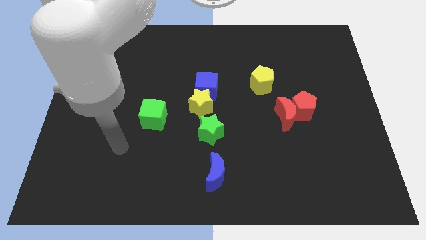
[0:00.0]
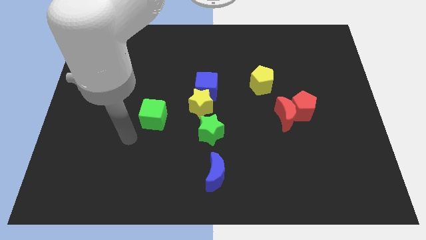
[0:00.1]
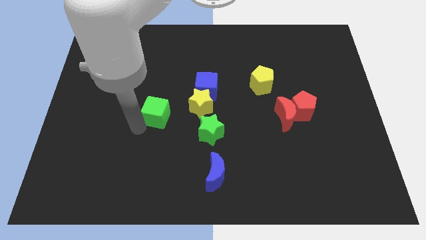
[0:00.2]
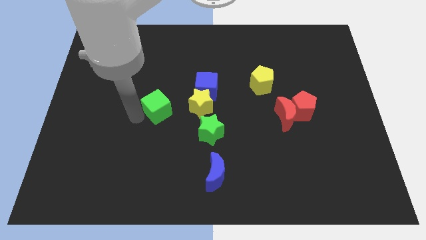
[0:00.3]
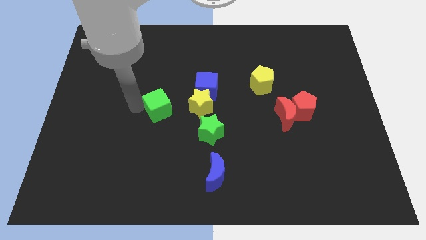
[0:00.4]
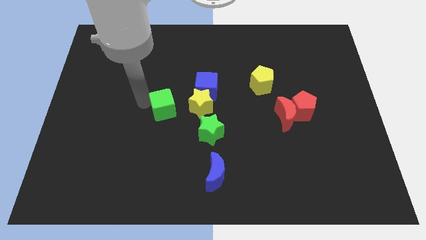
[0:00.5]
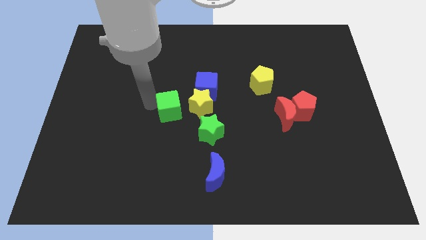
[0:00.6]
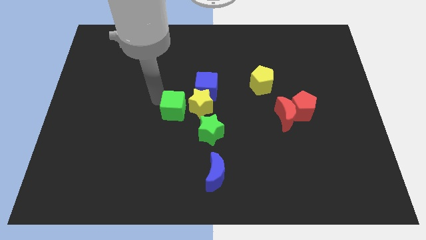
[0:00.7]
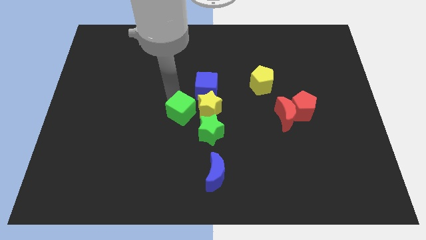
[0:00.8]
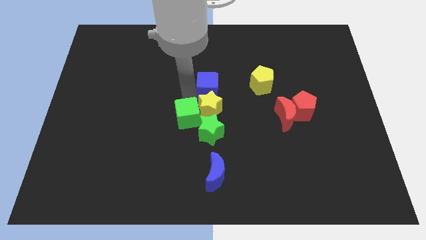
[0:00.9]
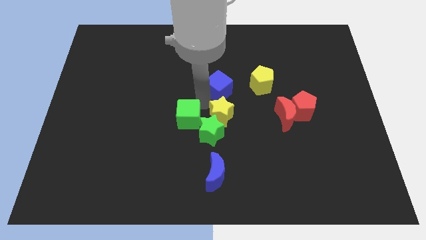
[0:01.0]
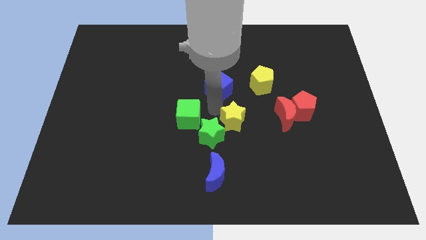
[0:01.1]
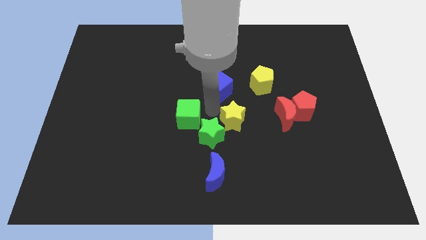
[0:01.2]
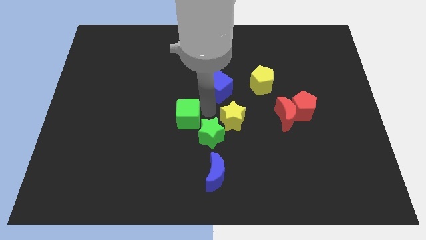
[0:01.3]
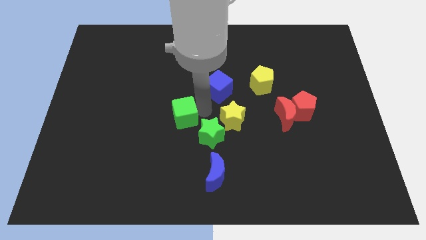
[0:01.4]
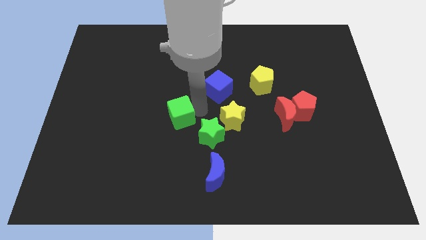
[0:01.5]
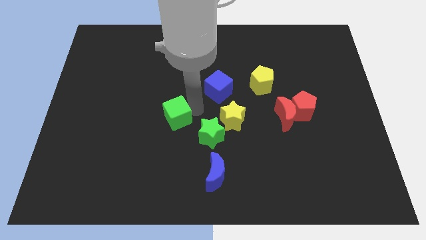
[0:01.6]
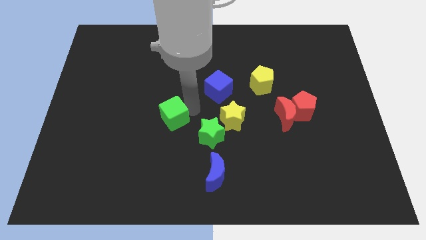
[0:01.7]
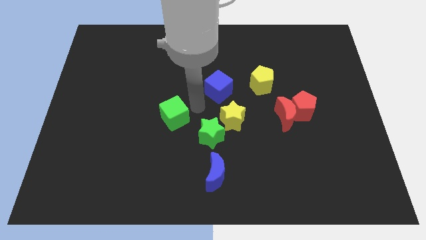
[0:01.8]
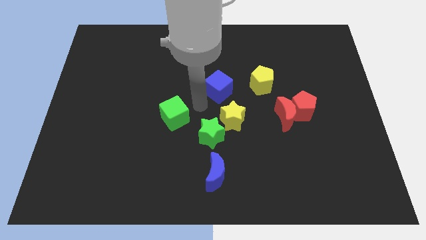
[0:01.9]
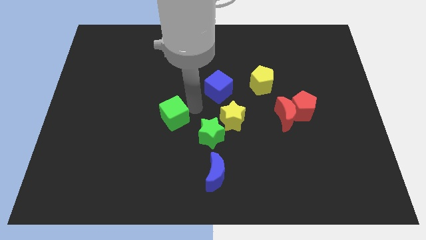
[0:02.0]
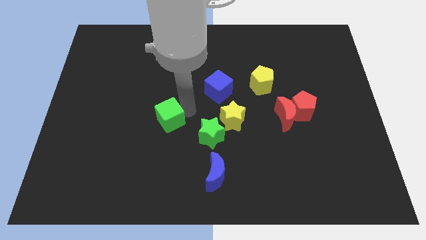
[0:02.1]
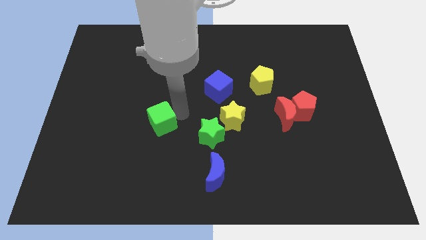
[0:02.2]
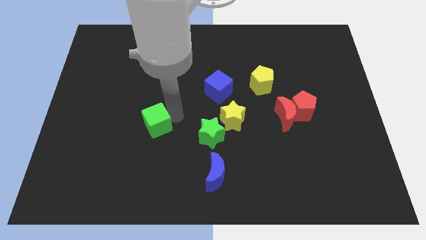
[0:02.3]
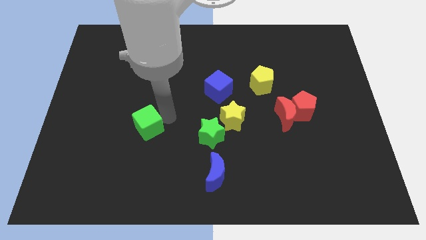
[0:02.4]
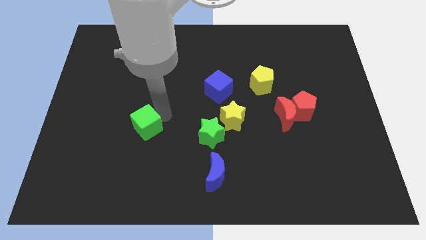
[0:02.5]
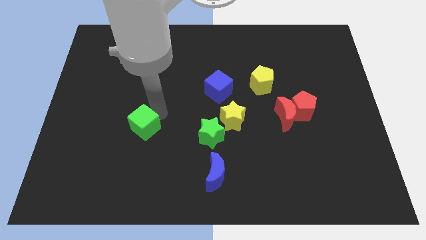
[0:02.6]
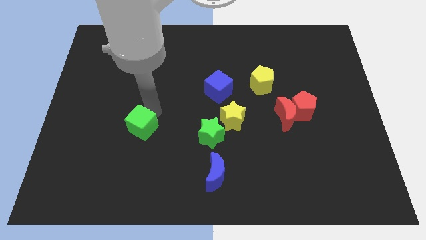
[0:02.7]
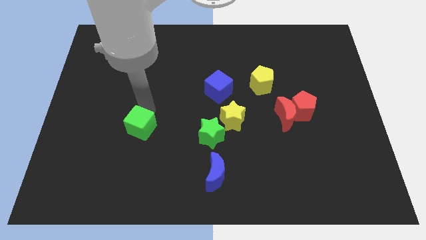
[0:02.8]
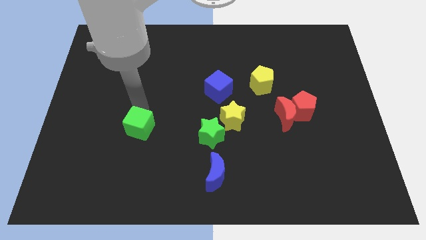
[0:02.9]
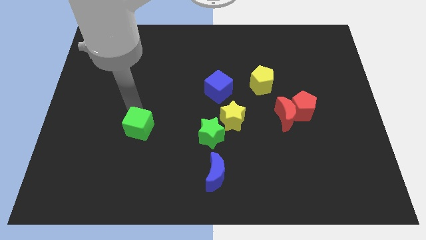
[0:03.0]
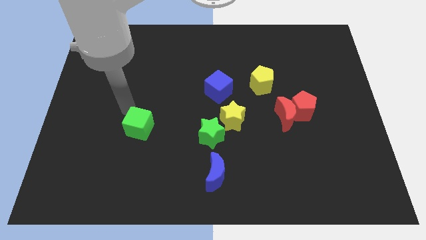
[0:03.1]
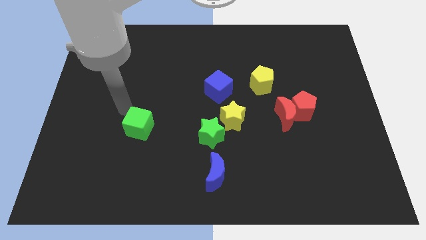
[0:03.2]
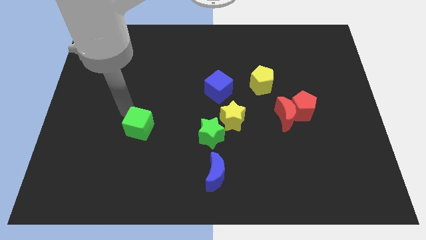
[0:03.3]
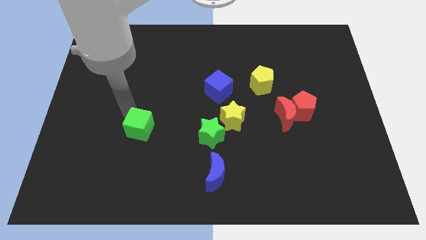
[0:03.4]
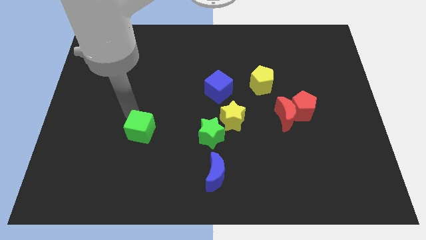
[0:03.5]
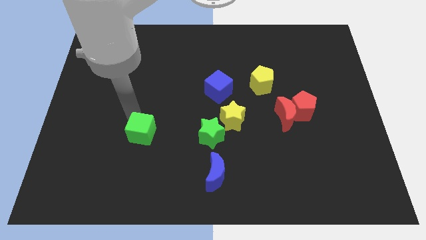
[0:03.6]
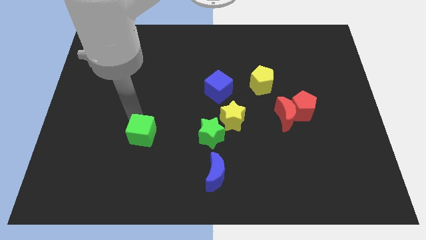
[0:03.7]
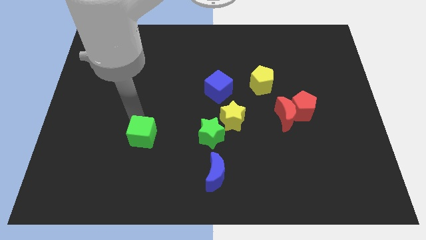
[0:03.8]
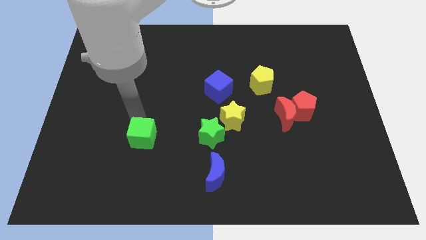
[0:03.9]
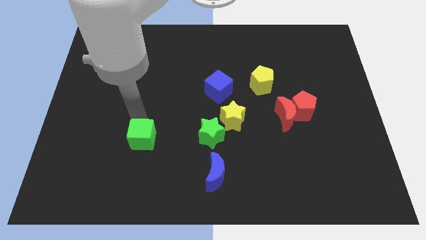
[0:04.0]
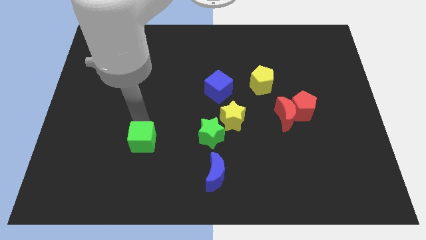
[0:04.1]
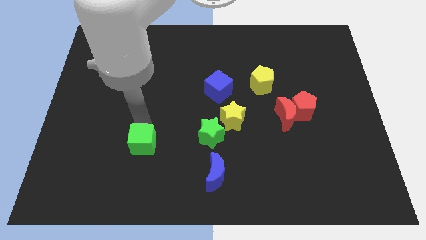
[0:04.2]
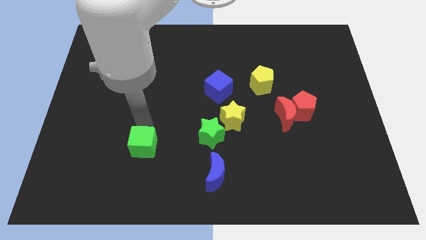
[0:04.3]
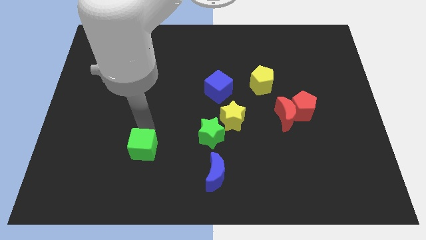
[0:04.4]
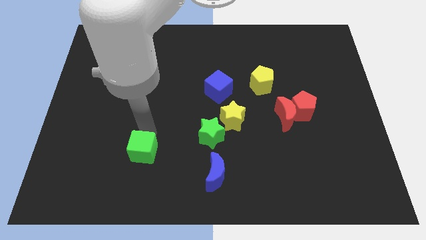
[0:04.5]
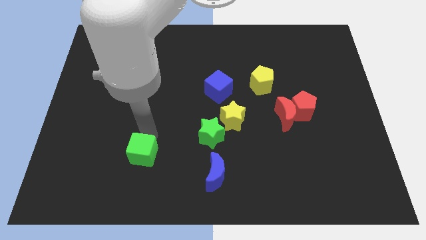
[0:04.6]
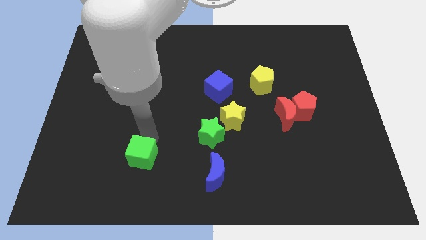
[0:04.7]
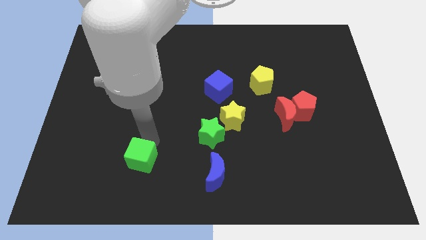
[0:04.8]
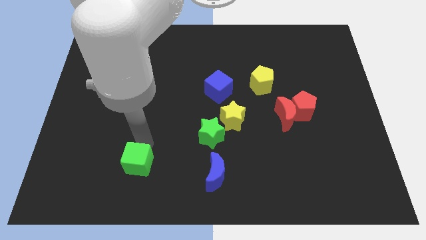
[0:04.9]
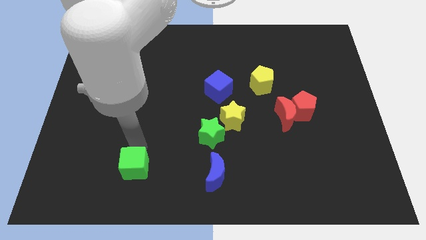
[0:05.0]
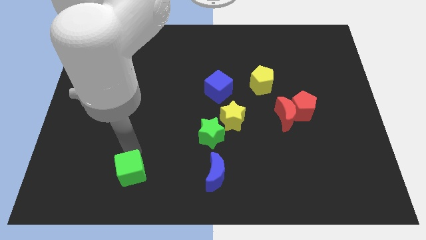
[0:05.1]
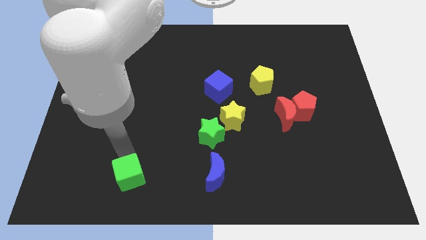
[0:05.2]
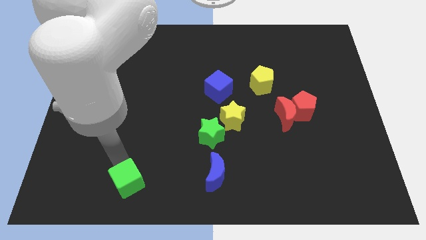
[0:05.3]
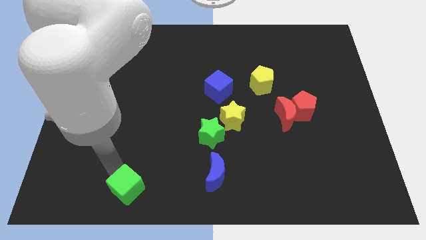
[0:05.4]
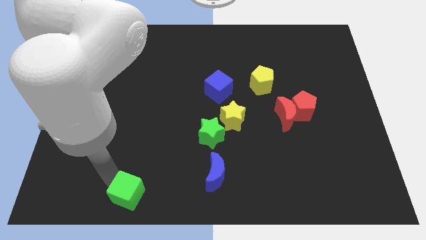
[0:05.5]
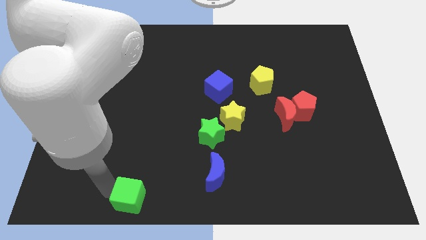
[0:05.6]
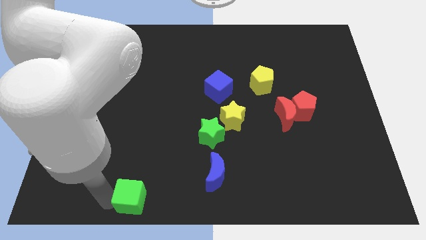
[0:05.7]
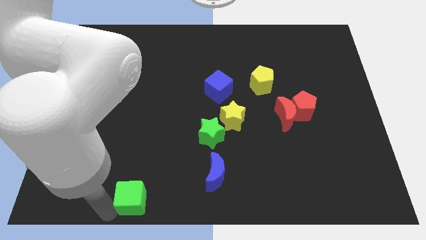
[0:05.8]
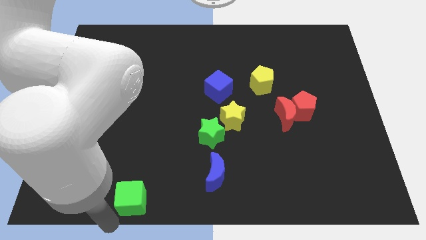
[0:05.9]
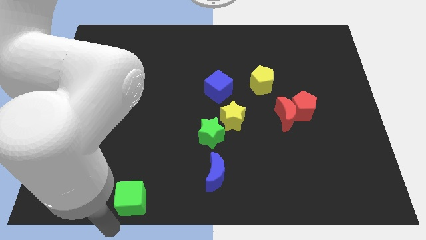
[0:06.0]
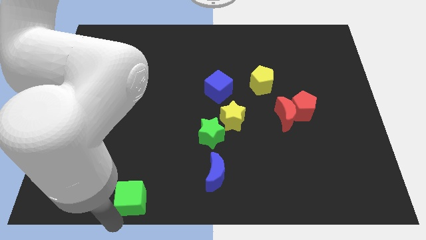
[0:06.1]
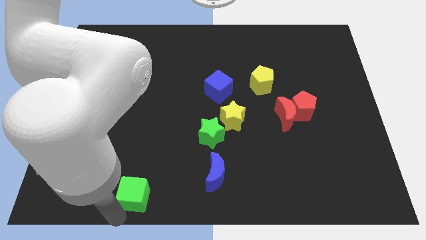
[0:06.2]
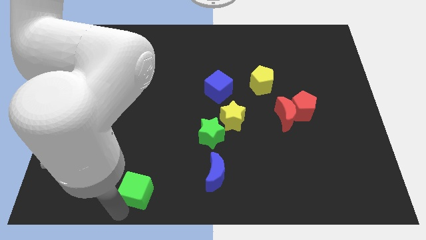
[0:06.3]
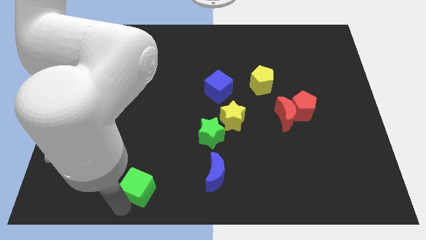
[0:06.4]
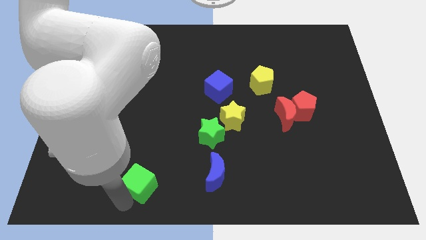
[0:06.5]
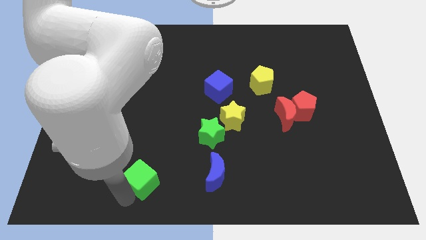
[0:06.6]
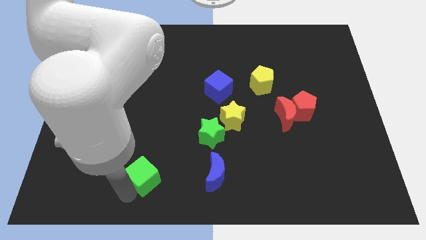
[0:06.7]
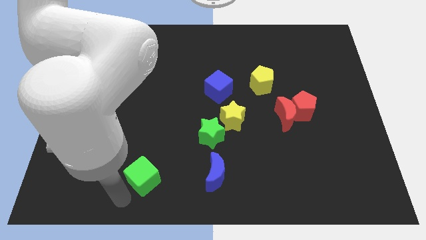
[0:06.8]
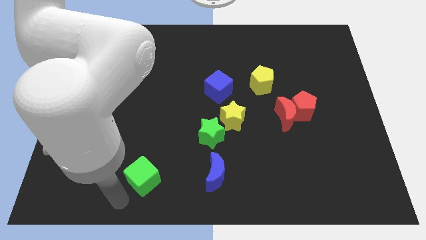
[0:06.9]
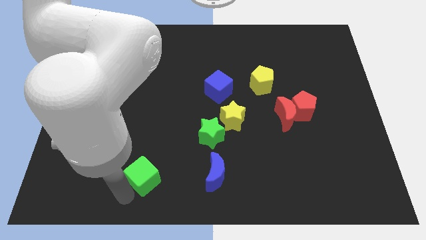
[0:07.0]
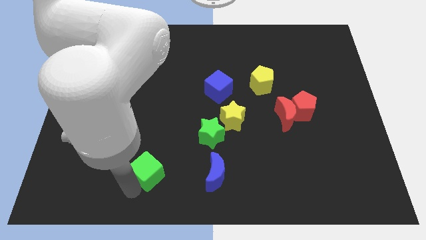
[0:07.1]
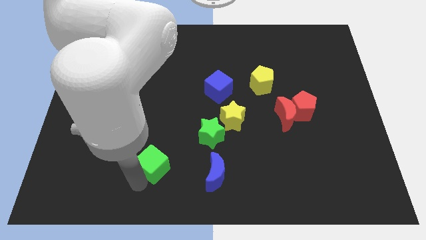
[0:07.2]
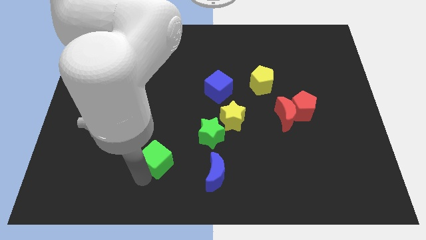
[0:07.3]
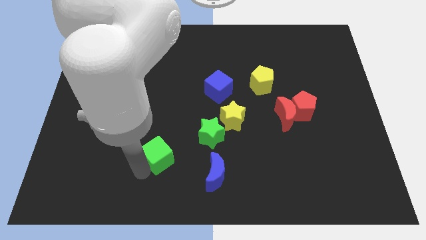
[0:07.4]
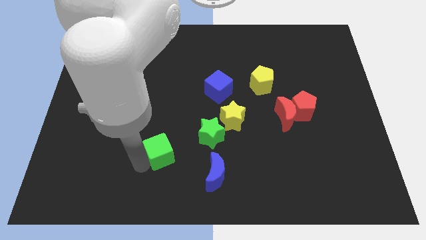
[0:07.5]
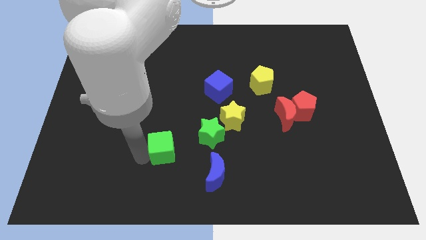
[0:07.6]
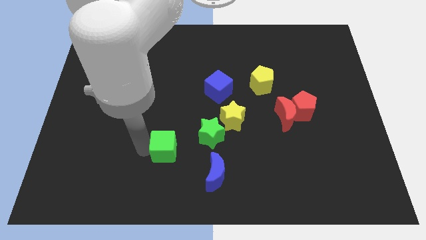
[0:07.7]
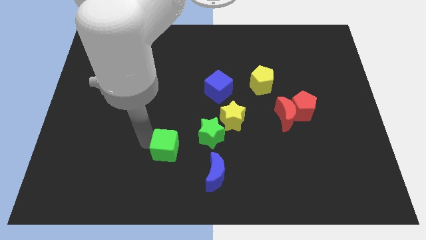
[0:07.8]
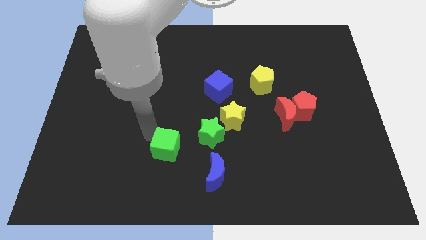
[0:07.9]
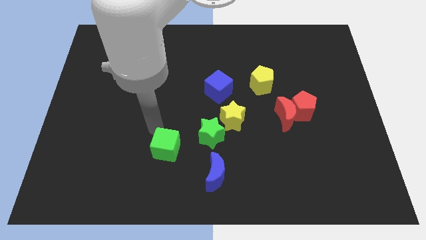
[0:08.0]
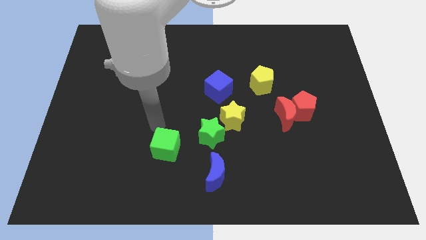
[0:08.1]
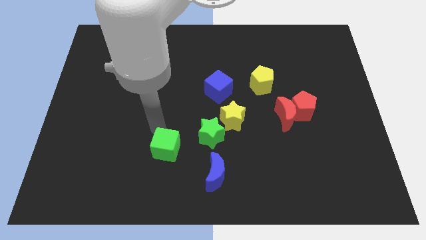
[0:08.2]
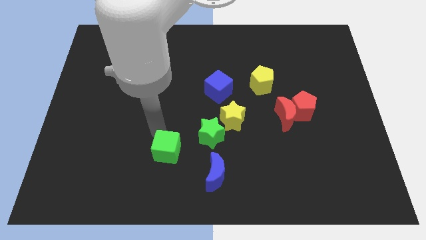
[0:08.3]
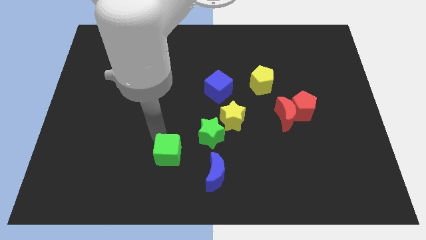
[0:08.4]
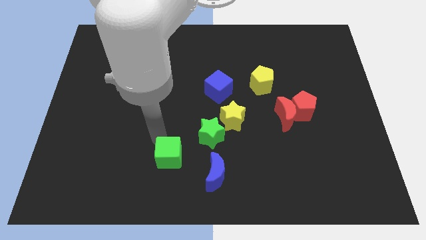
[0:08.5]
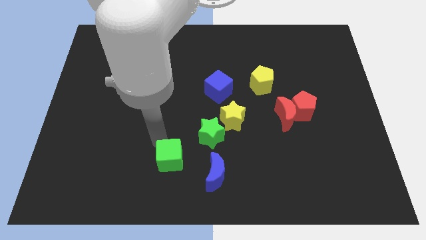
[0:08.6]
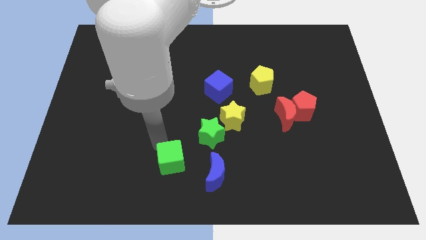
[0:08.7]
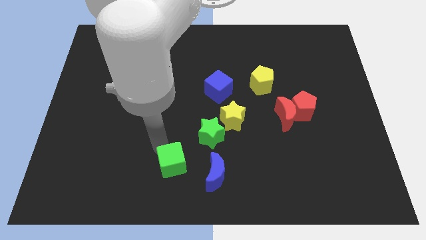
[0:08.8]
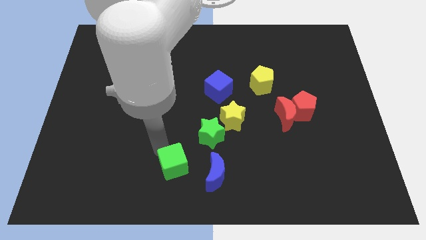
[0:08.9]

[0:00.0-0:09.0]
move the green cube to the bottom side
